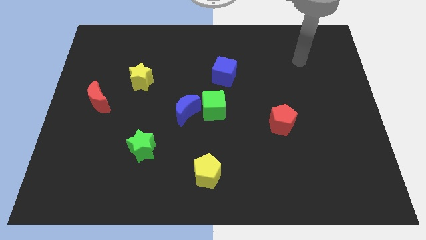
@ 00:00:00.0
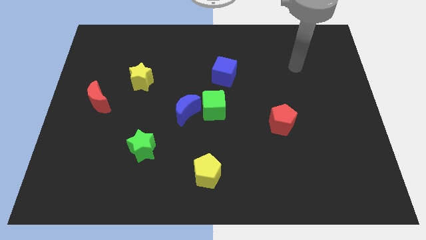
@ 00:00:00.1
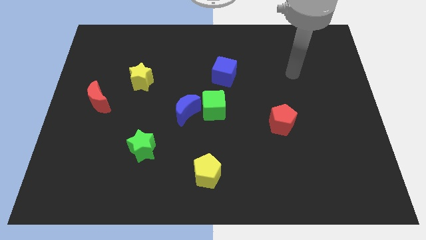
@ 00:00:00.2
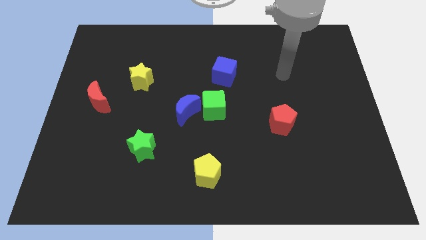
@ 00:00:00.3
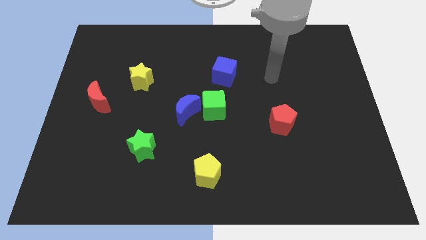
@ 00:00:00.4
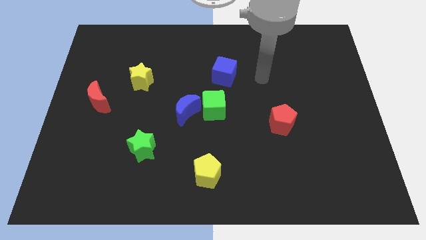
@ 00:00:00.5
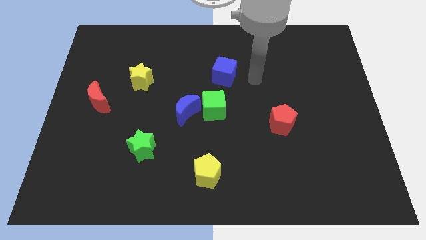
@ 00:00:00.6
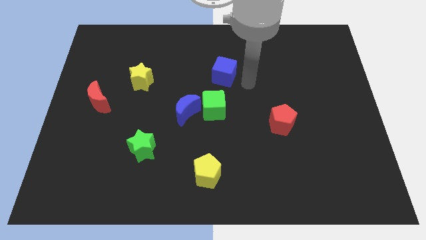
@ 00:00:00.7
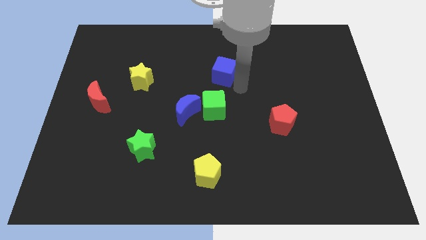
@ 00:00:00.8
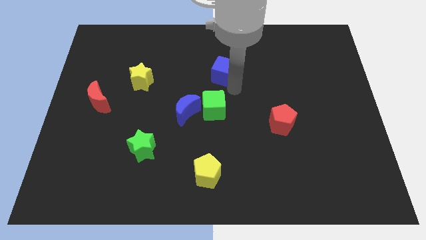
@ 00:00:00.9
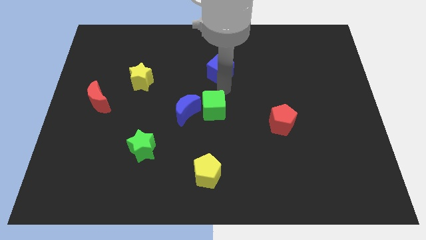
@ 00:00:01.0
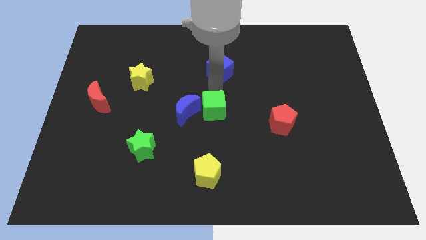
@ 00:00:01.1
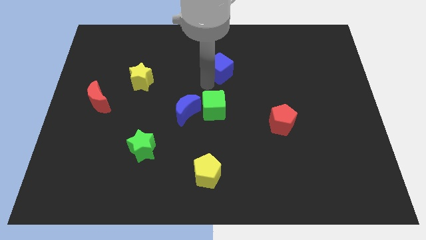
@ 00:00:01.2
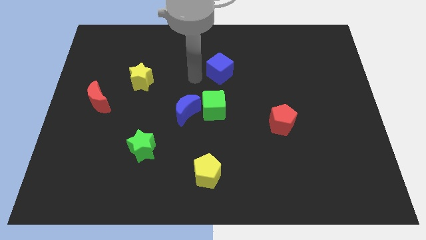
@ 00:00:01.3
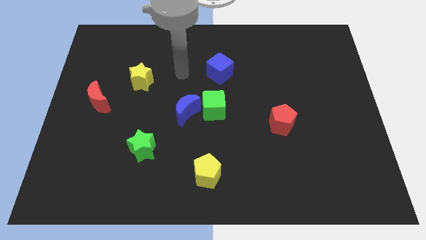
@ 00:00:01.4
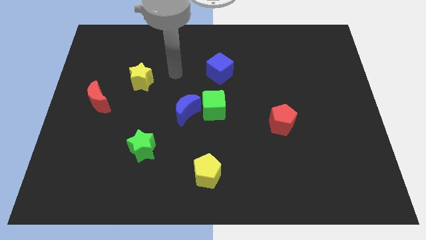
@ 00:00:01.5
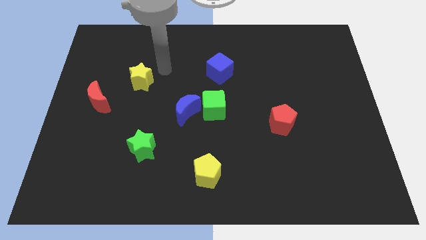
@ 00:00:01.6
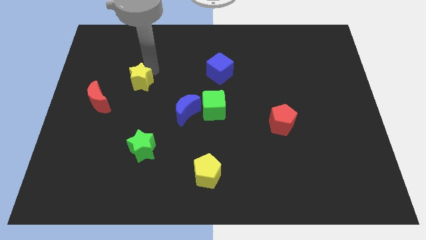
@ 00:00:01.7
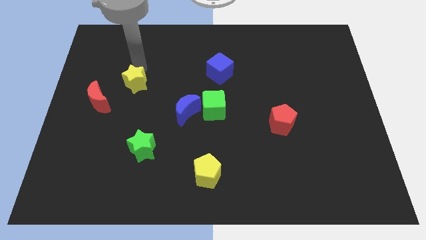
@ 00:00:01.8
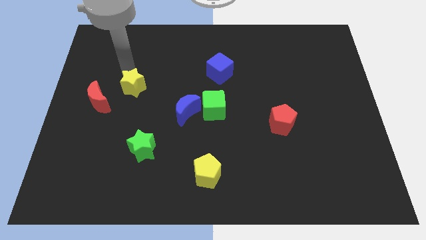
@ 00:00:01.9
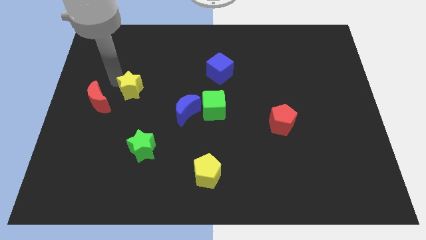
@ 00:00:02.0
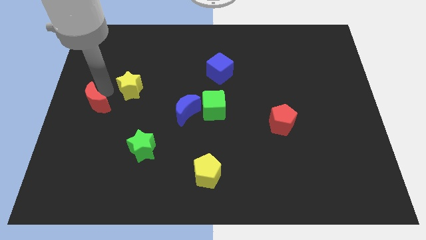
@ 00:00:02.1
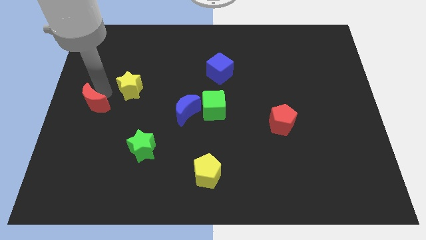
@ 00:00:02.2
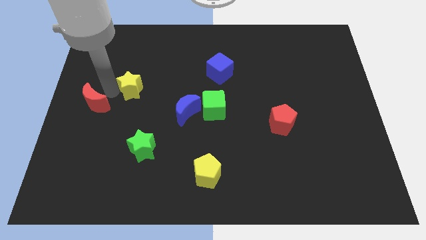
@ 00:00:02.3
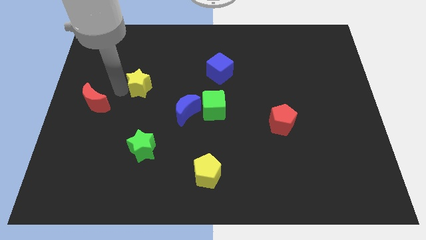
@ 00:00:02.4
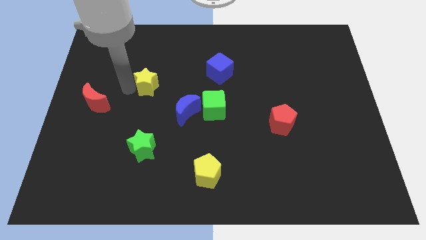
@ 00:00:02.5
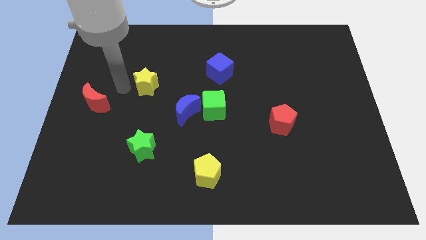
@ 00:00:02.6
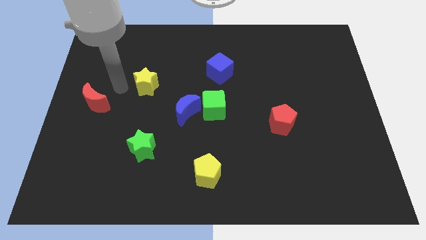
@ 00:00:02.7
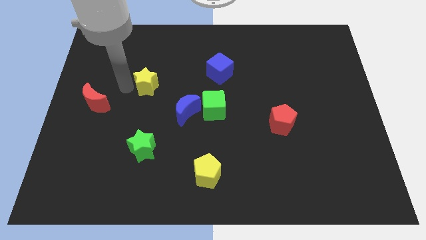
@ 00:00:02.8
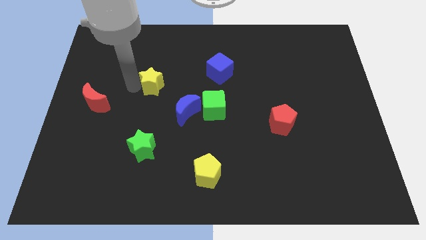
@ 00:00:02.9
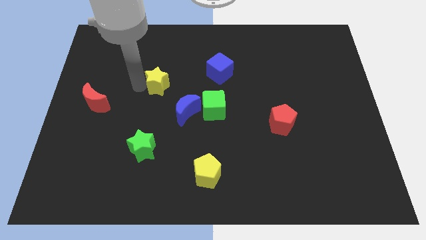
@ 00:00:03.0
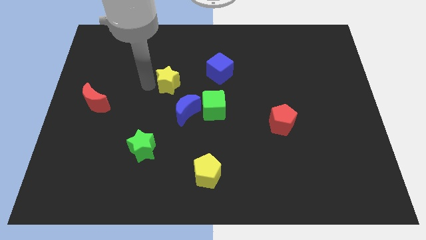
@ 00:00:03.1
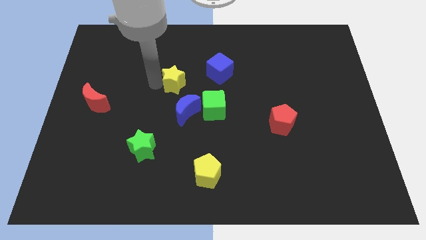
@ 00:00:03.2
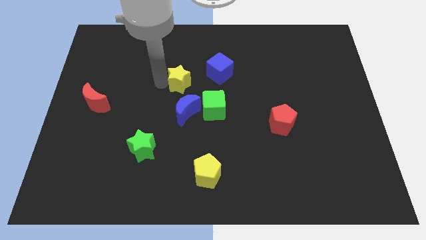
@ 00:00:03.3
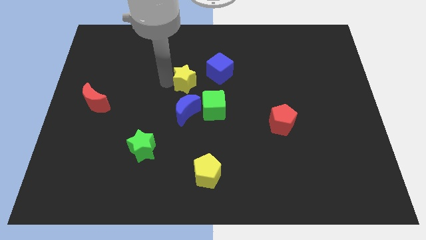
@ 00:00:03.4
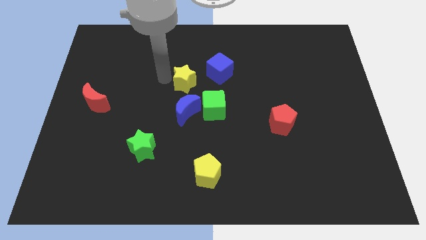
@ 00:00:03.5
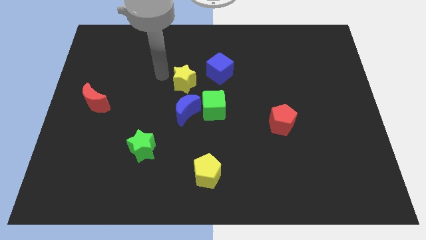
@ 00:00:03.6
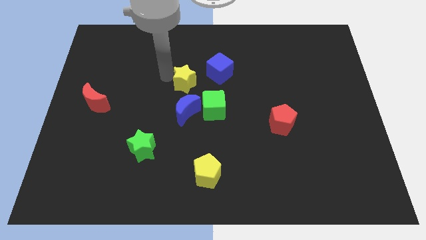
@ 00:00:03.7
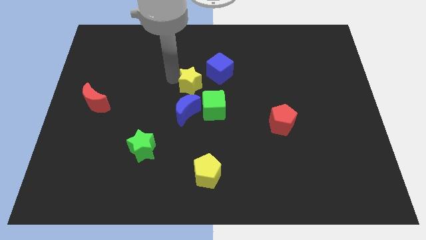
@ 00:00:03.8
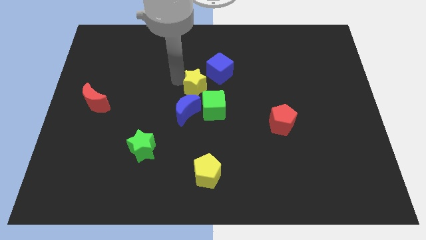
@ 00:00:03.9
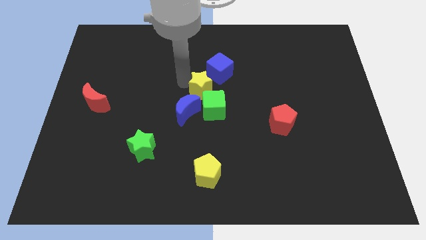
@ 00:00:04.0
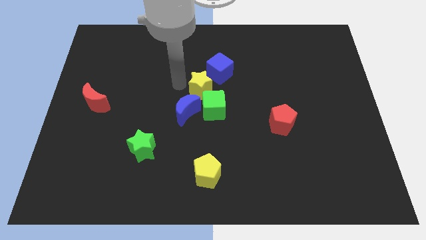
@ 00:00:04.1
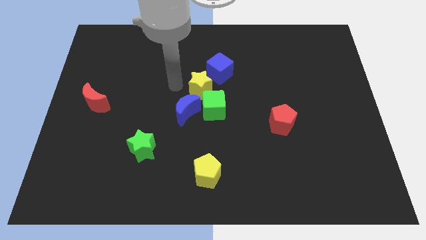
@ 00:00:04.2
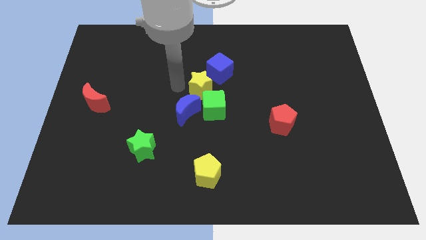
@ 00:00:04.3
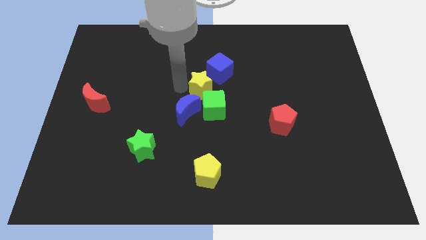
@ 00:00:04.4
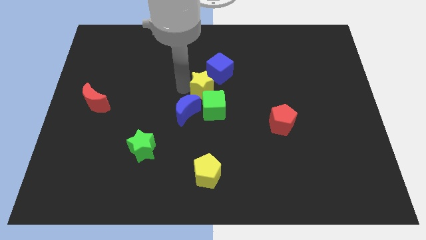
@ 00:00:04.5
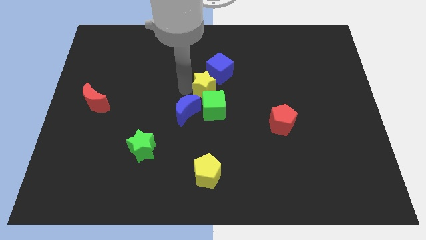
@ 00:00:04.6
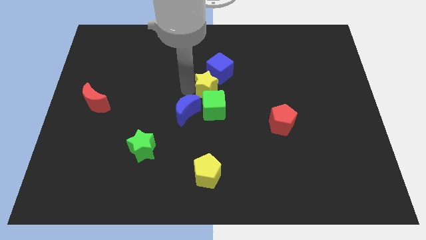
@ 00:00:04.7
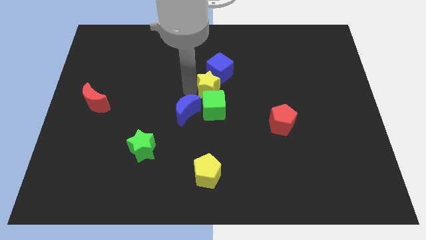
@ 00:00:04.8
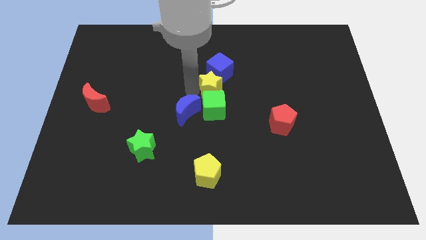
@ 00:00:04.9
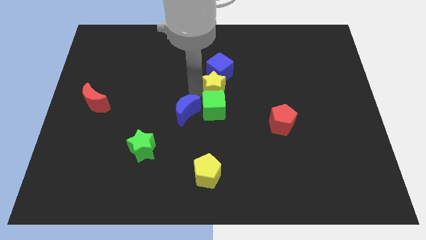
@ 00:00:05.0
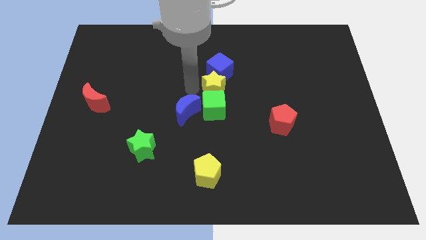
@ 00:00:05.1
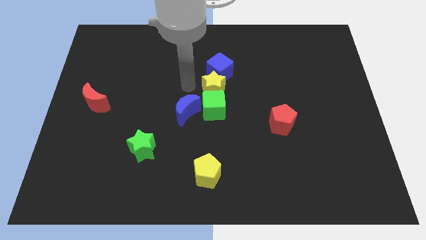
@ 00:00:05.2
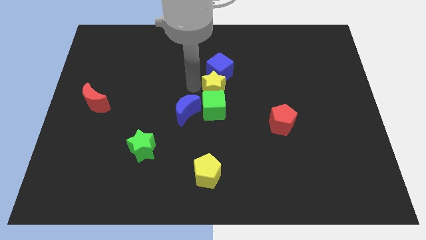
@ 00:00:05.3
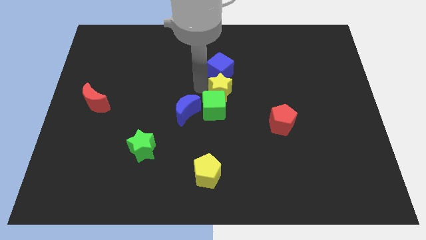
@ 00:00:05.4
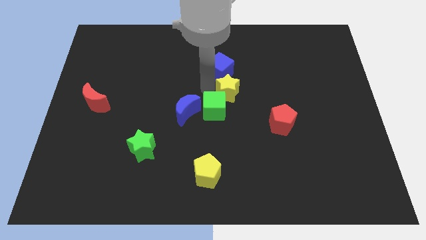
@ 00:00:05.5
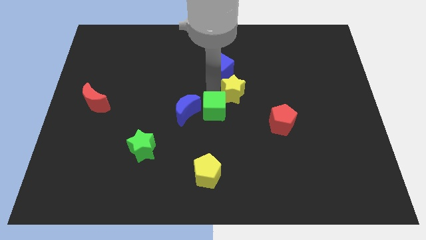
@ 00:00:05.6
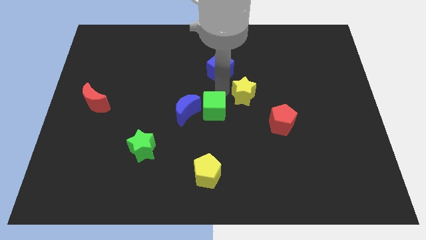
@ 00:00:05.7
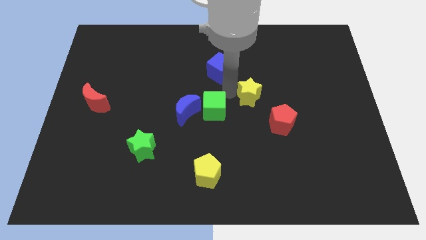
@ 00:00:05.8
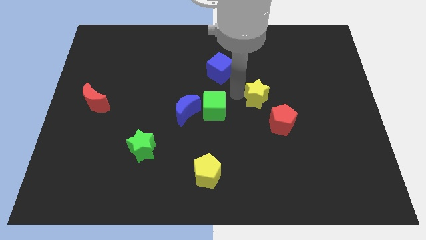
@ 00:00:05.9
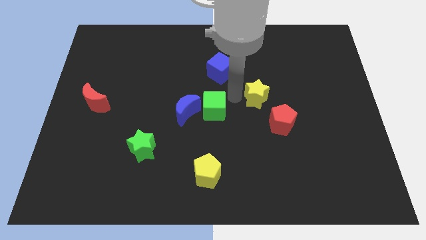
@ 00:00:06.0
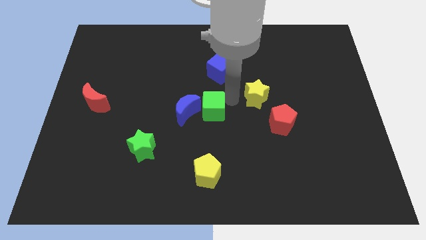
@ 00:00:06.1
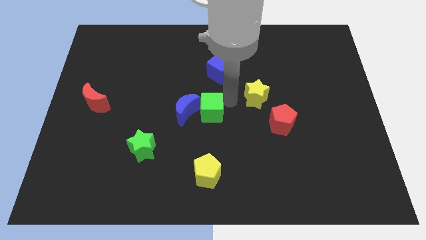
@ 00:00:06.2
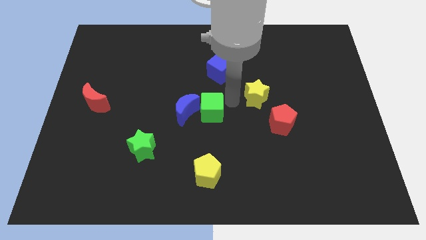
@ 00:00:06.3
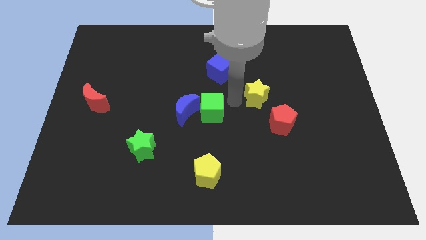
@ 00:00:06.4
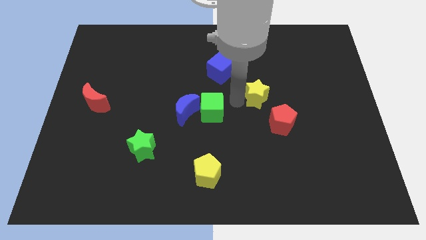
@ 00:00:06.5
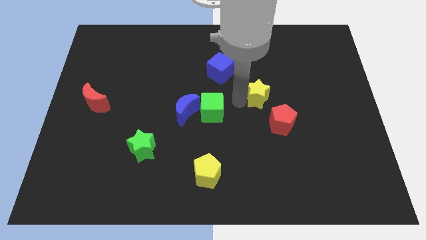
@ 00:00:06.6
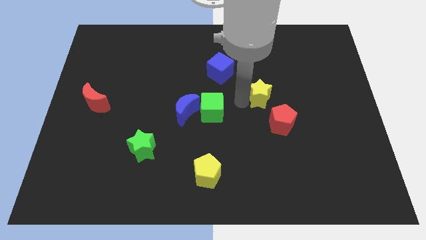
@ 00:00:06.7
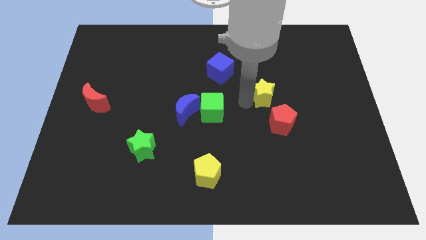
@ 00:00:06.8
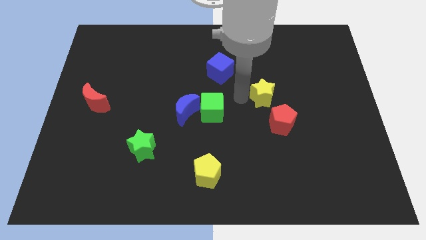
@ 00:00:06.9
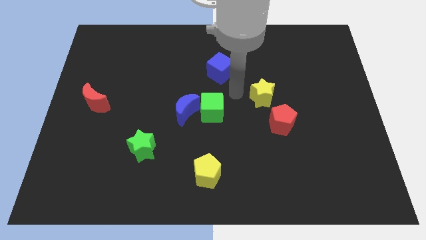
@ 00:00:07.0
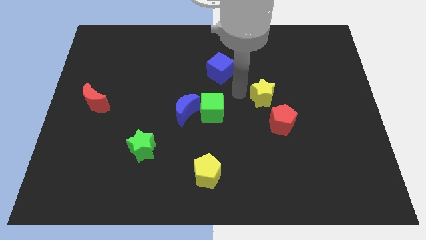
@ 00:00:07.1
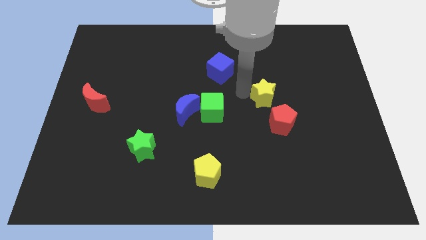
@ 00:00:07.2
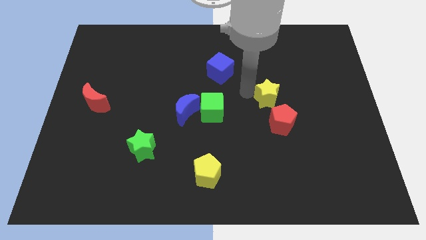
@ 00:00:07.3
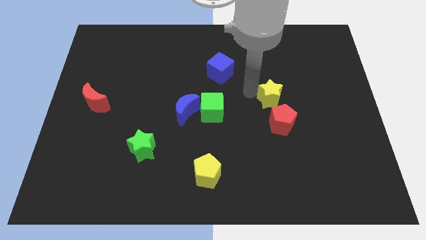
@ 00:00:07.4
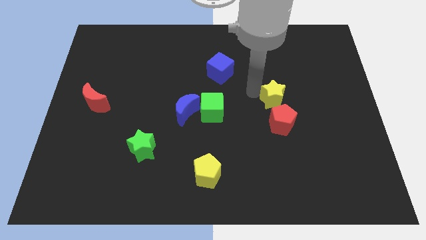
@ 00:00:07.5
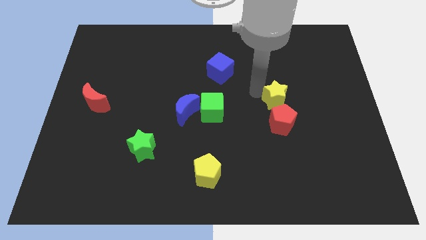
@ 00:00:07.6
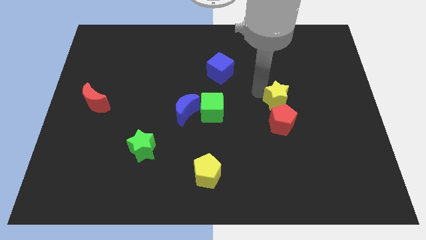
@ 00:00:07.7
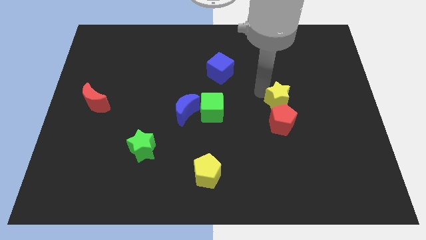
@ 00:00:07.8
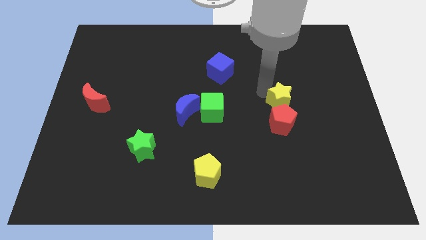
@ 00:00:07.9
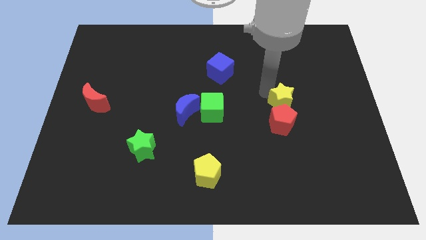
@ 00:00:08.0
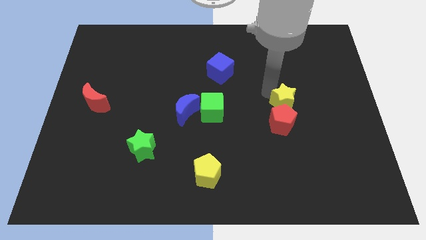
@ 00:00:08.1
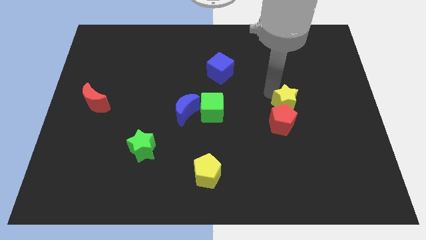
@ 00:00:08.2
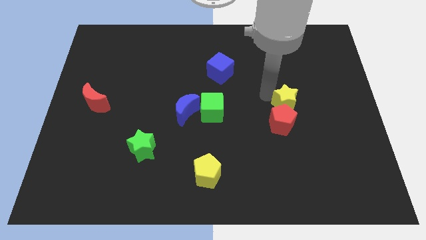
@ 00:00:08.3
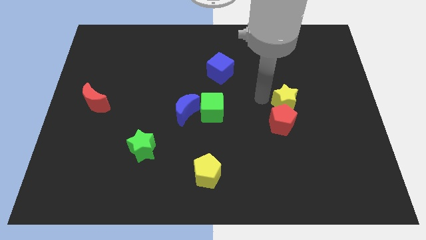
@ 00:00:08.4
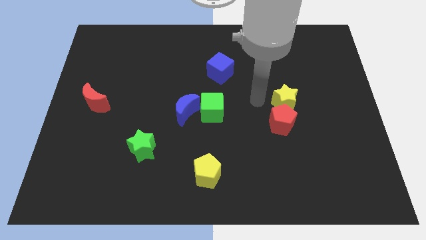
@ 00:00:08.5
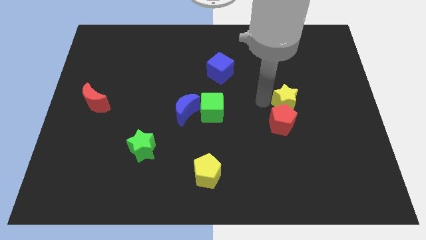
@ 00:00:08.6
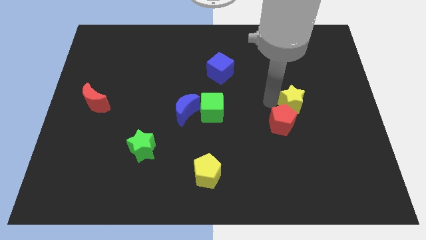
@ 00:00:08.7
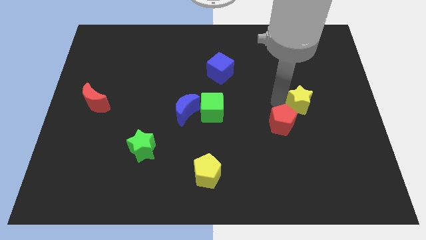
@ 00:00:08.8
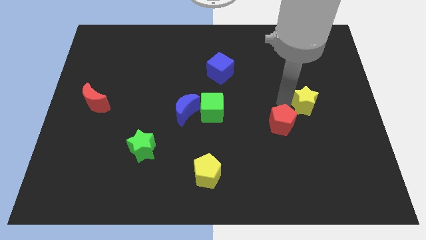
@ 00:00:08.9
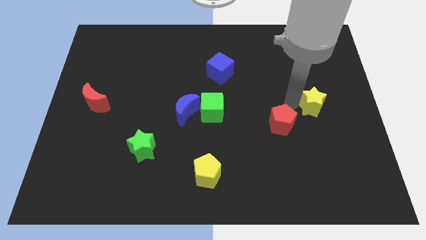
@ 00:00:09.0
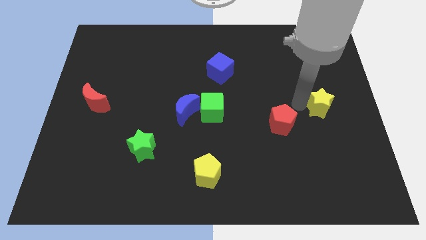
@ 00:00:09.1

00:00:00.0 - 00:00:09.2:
push the yellow star to the right side
